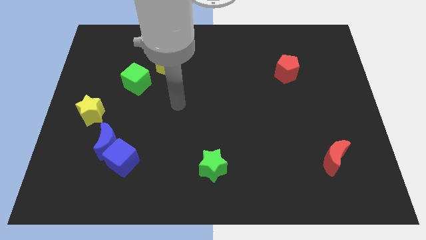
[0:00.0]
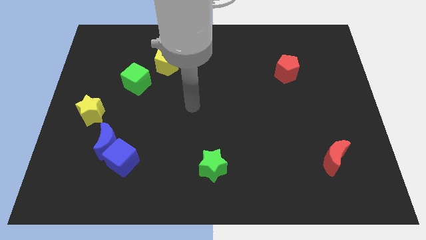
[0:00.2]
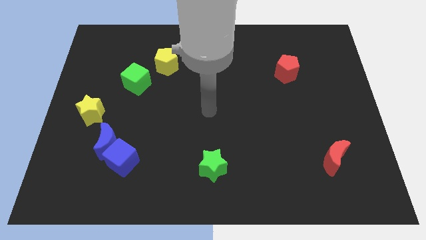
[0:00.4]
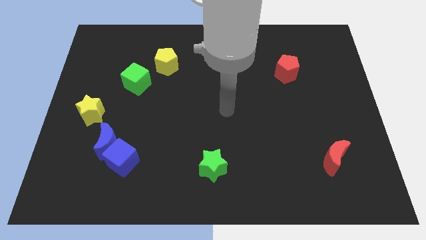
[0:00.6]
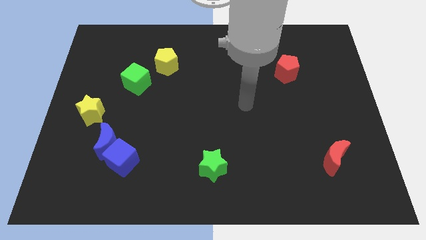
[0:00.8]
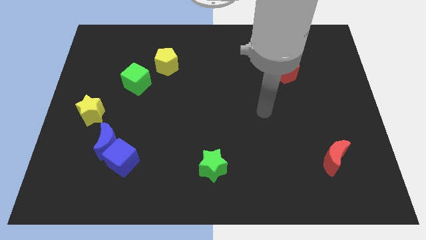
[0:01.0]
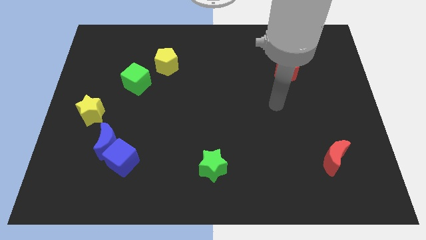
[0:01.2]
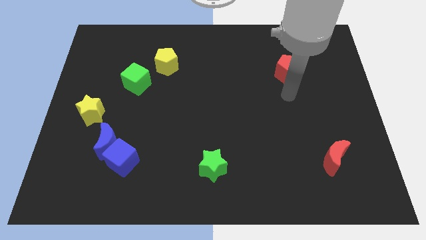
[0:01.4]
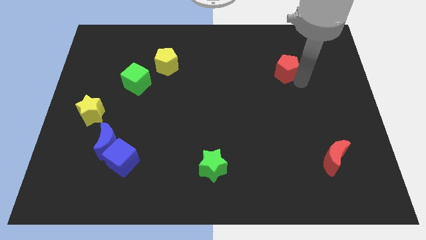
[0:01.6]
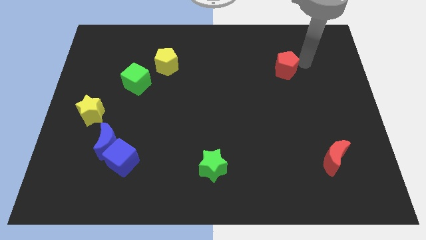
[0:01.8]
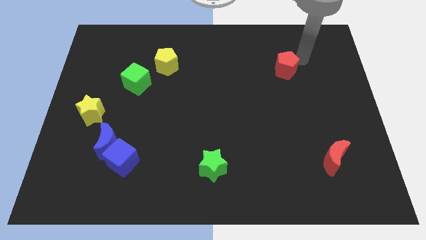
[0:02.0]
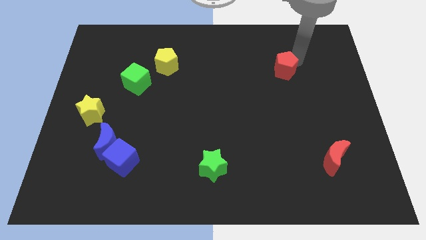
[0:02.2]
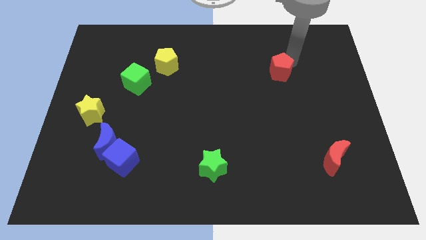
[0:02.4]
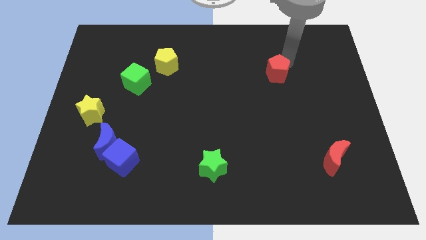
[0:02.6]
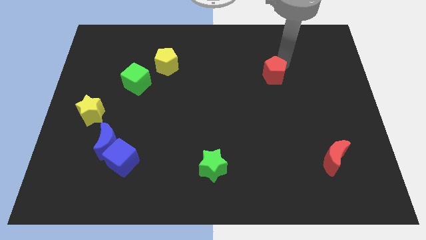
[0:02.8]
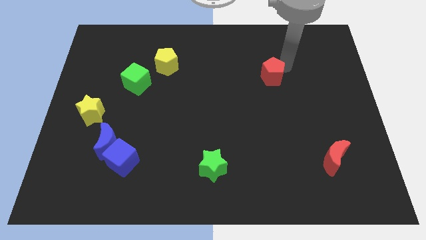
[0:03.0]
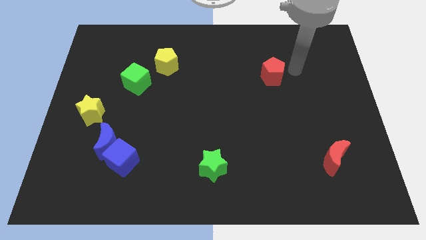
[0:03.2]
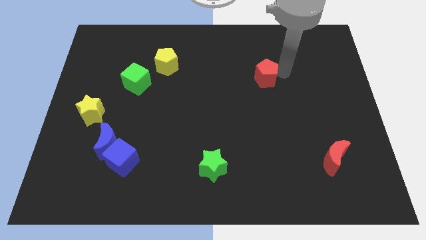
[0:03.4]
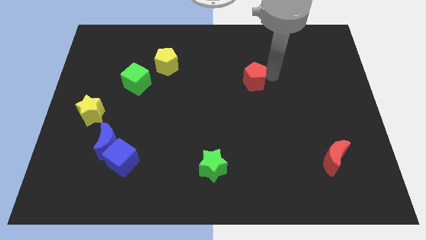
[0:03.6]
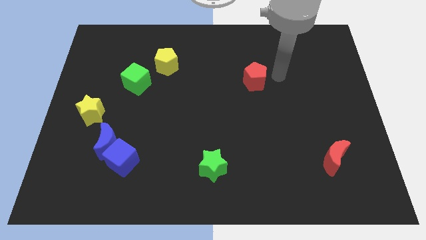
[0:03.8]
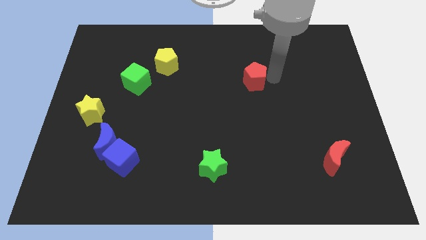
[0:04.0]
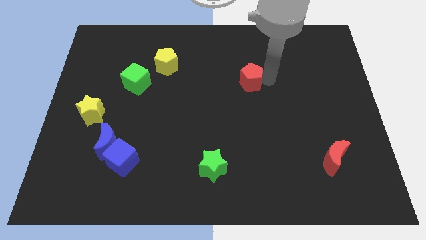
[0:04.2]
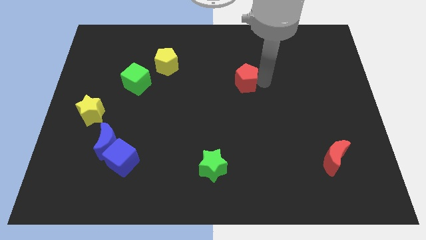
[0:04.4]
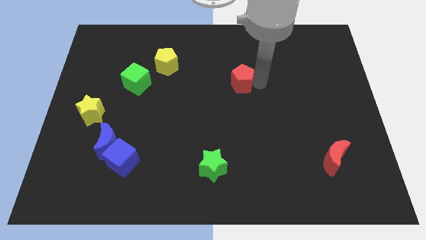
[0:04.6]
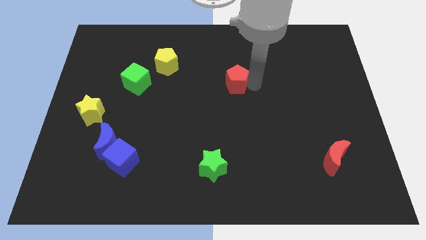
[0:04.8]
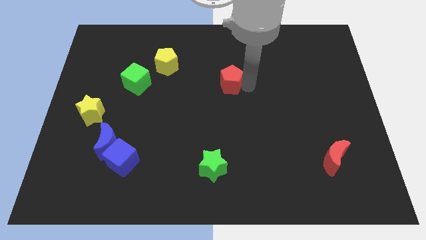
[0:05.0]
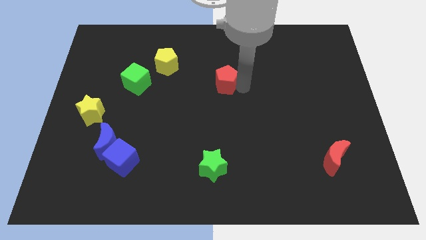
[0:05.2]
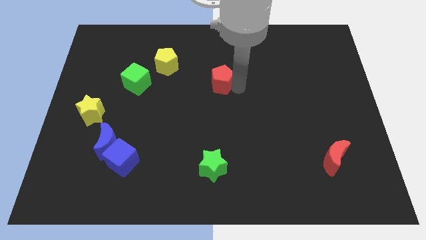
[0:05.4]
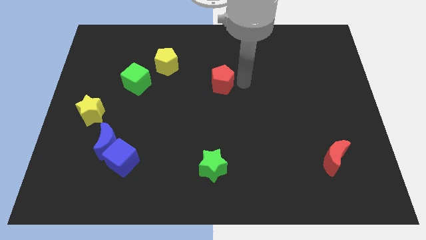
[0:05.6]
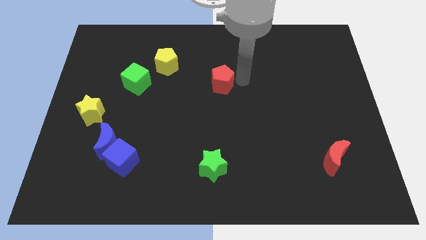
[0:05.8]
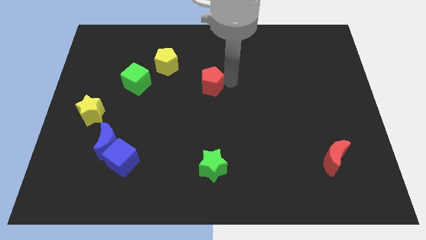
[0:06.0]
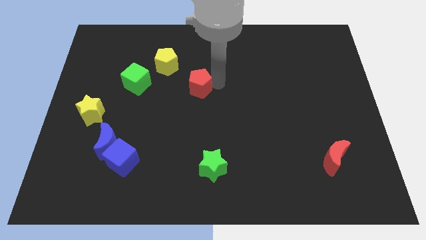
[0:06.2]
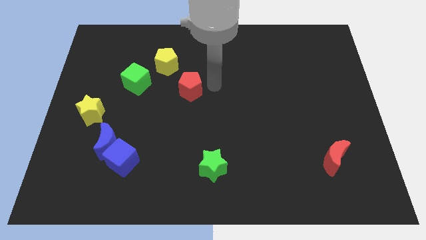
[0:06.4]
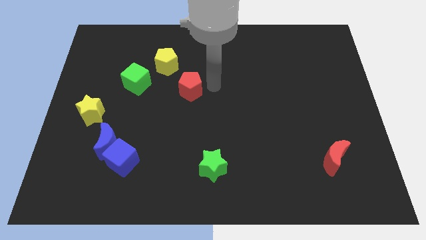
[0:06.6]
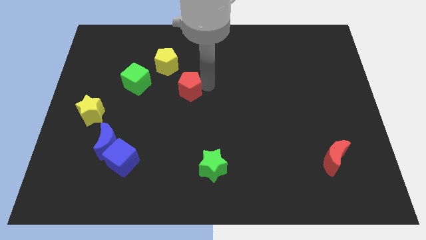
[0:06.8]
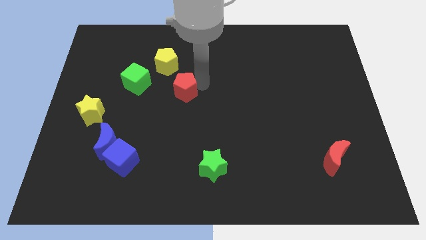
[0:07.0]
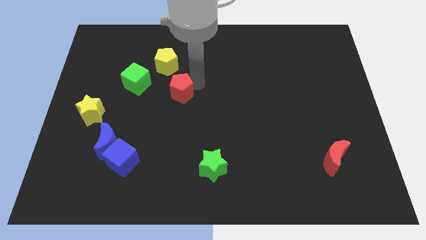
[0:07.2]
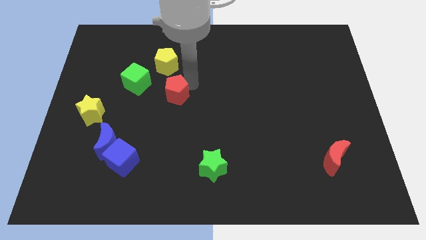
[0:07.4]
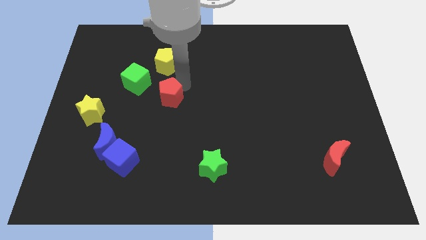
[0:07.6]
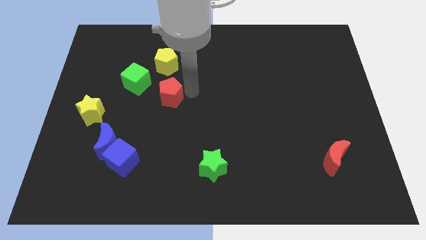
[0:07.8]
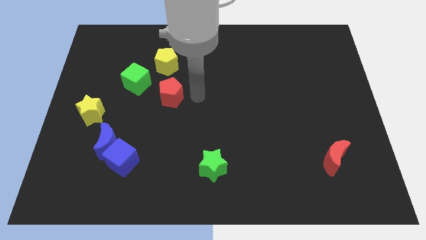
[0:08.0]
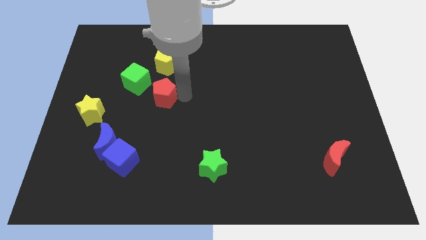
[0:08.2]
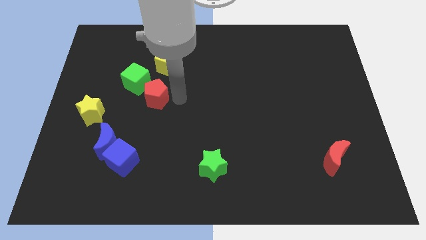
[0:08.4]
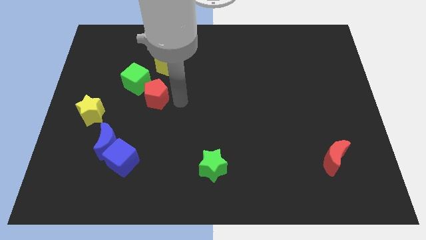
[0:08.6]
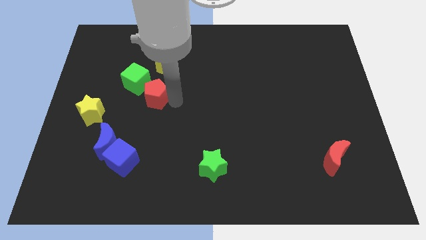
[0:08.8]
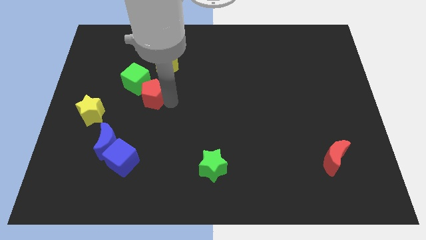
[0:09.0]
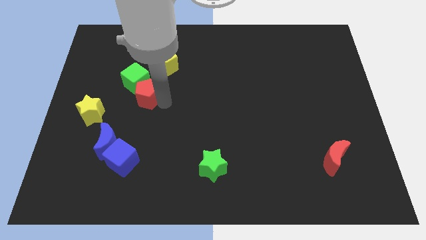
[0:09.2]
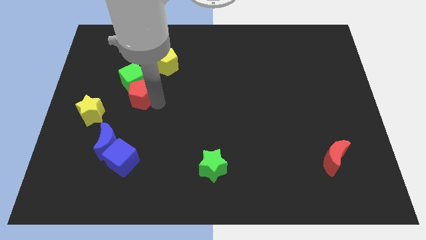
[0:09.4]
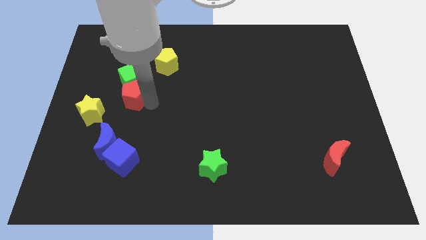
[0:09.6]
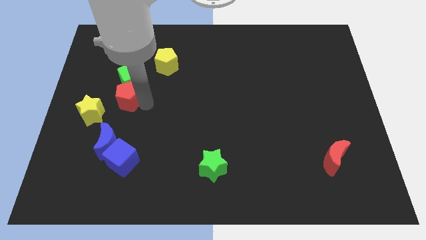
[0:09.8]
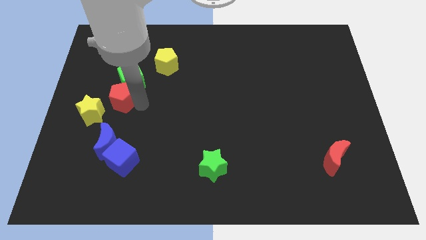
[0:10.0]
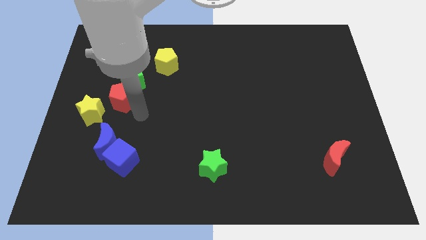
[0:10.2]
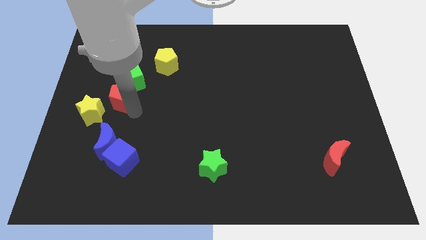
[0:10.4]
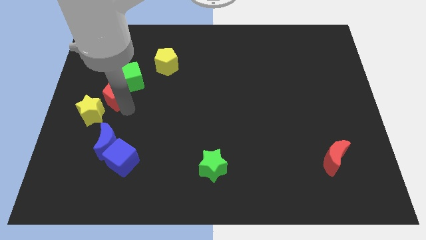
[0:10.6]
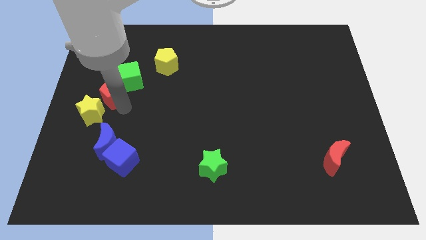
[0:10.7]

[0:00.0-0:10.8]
push the red pentagon above the yellow star

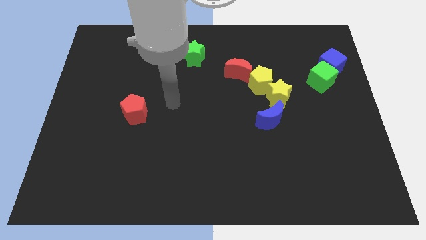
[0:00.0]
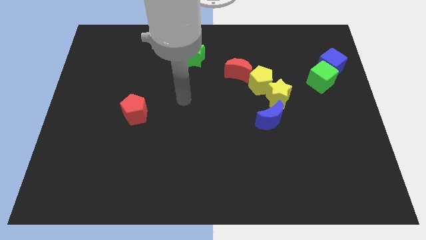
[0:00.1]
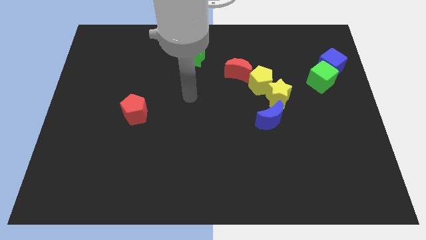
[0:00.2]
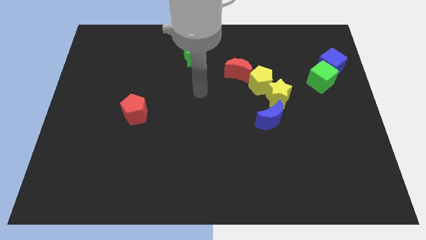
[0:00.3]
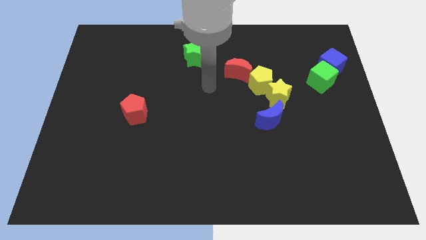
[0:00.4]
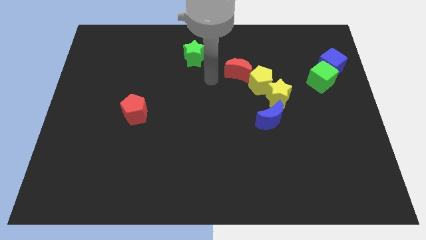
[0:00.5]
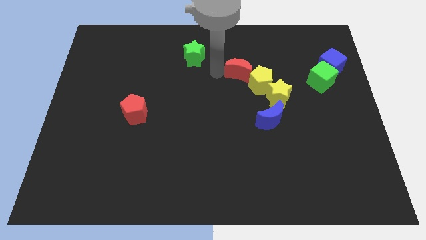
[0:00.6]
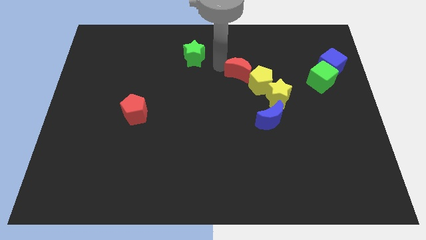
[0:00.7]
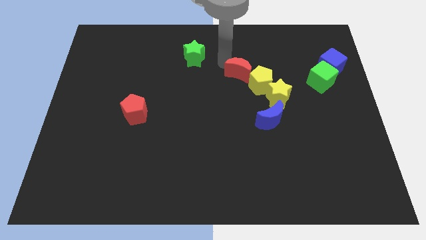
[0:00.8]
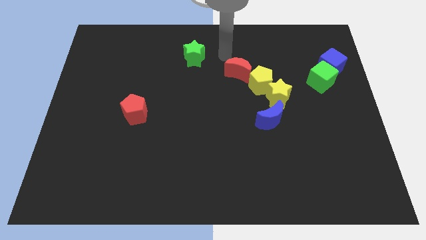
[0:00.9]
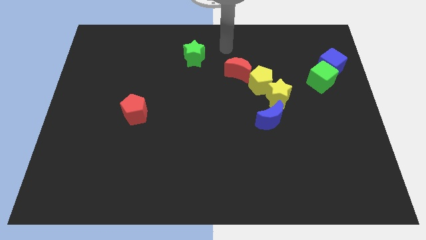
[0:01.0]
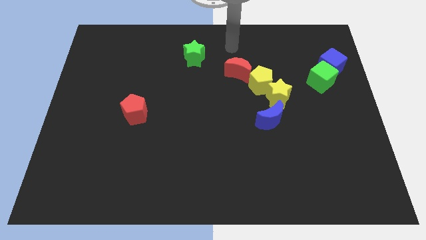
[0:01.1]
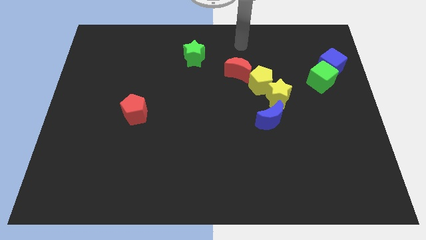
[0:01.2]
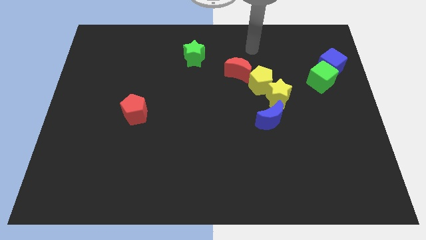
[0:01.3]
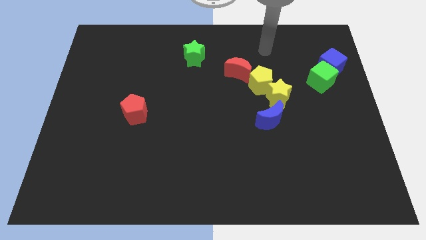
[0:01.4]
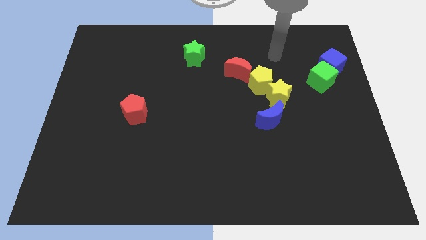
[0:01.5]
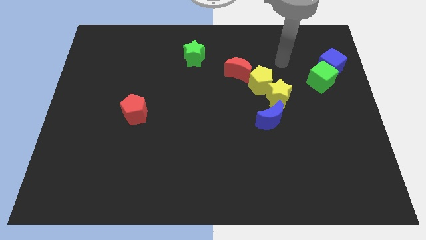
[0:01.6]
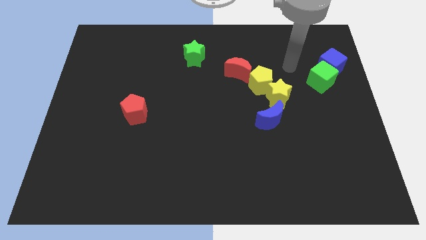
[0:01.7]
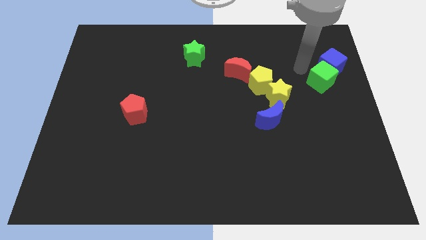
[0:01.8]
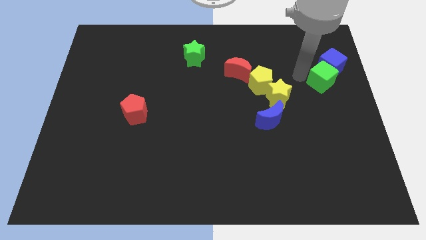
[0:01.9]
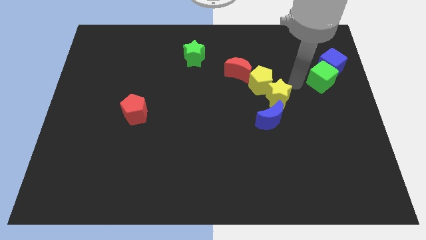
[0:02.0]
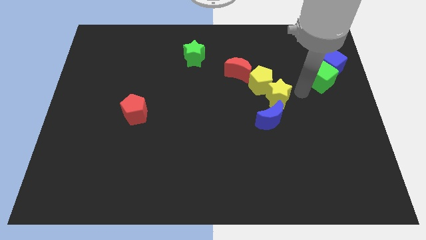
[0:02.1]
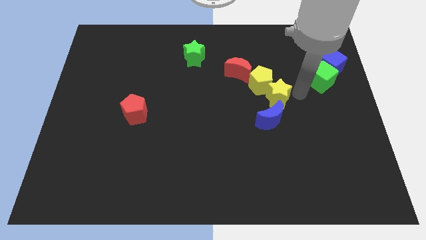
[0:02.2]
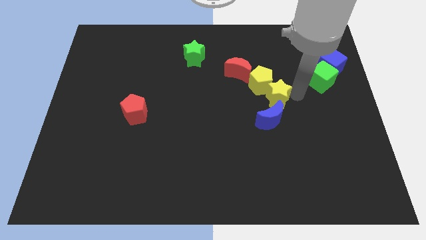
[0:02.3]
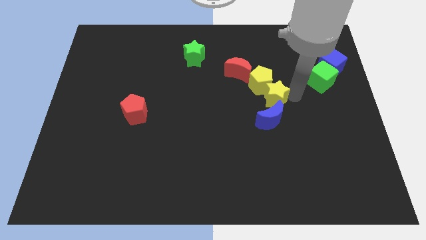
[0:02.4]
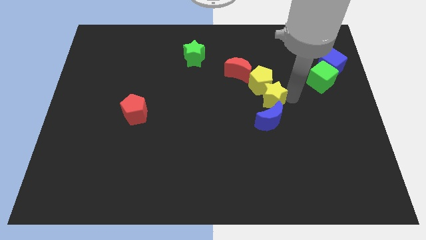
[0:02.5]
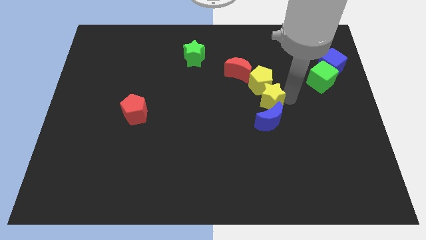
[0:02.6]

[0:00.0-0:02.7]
move the yellow star to the top left of the blue moon
